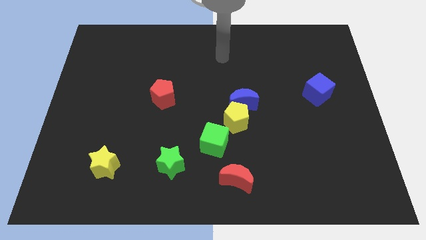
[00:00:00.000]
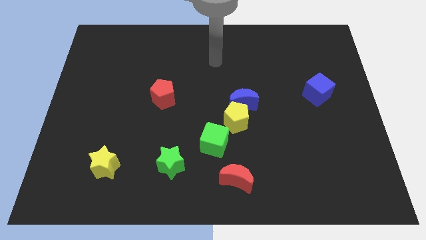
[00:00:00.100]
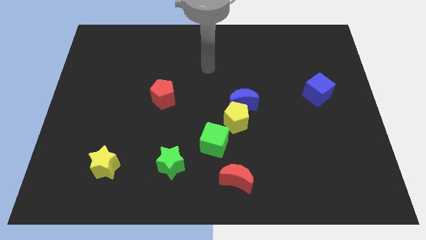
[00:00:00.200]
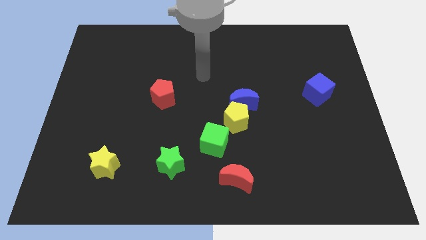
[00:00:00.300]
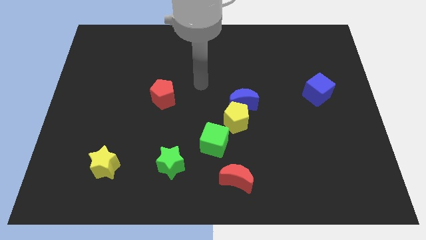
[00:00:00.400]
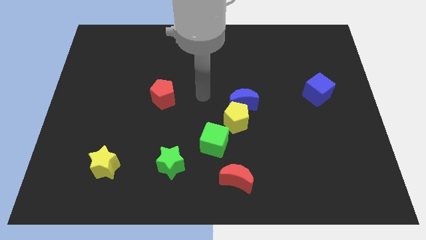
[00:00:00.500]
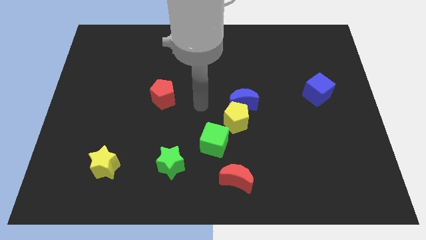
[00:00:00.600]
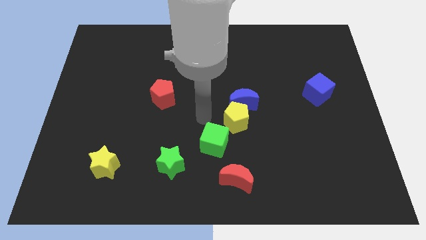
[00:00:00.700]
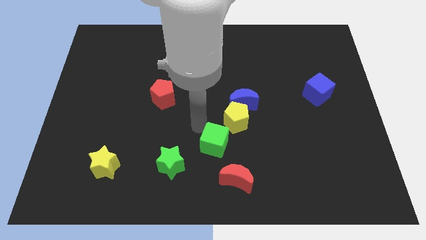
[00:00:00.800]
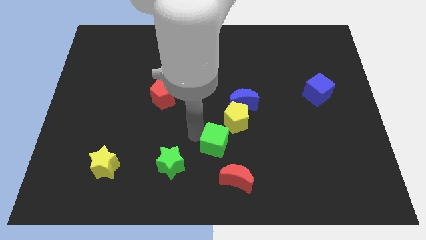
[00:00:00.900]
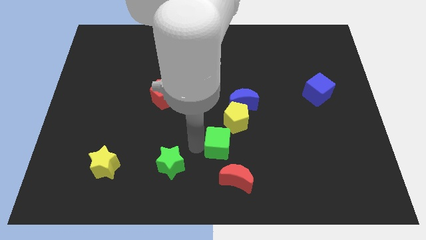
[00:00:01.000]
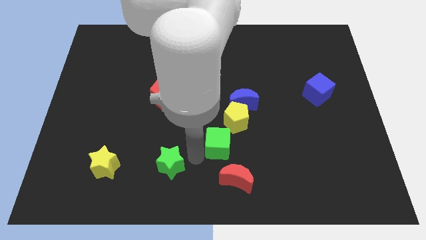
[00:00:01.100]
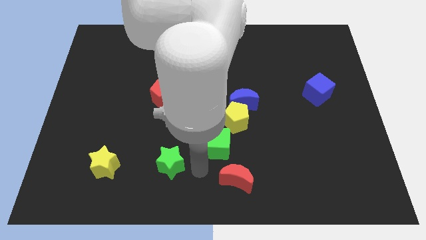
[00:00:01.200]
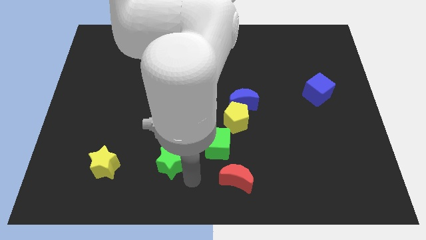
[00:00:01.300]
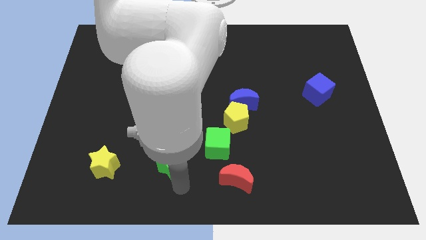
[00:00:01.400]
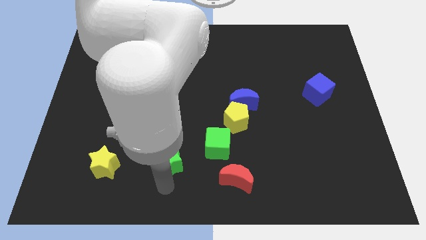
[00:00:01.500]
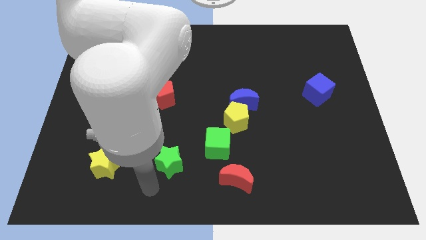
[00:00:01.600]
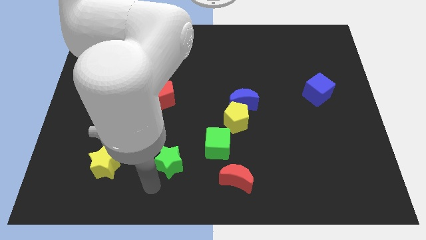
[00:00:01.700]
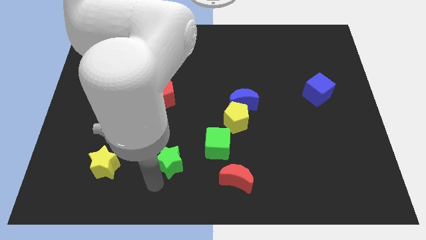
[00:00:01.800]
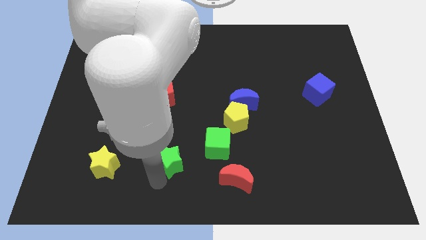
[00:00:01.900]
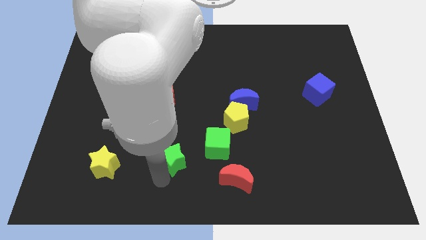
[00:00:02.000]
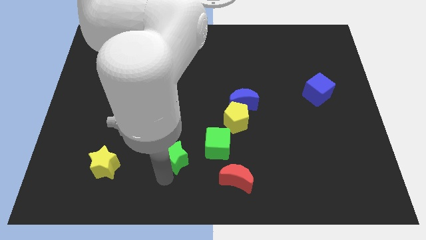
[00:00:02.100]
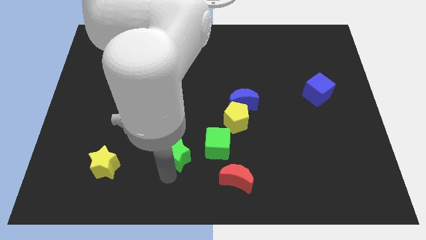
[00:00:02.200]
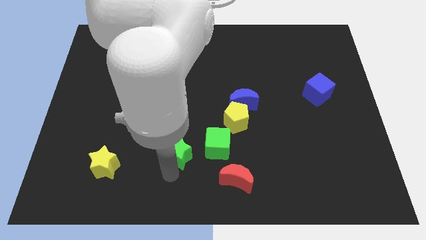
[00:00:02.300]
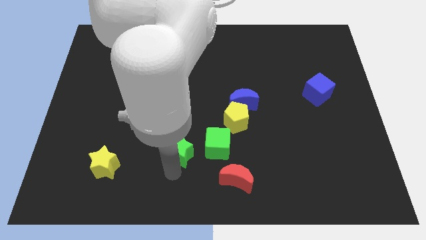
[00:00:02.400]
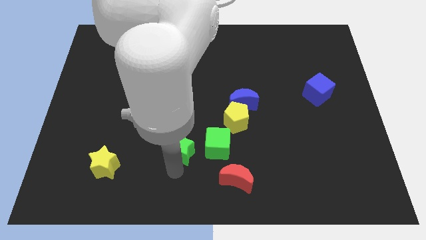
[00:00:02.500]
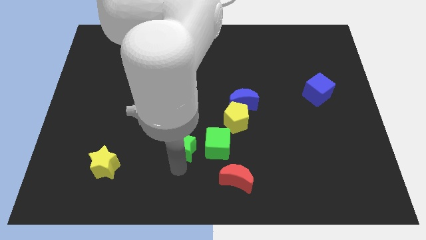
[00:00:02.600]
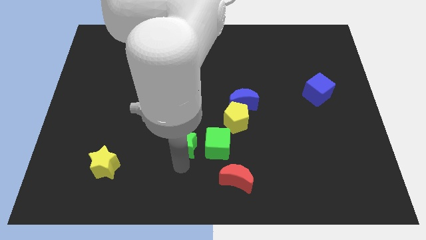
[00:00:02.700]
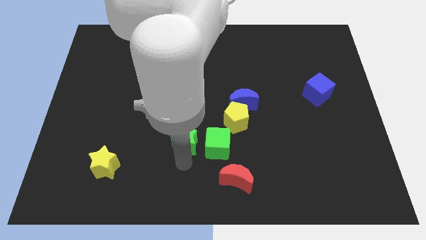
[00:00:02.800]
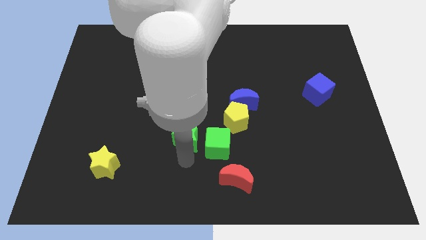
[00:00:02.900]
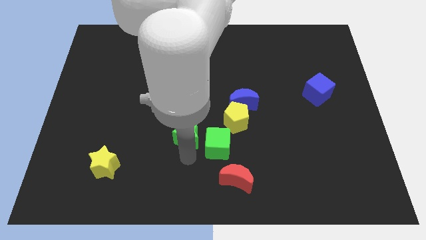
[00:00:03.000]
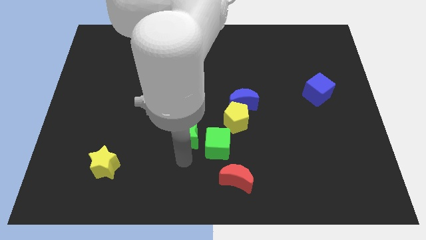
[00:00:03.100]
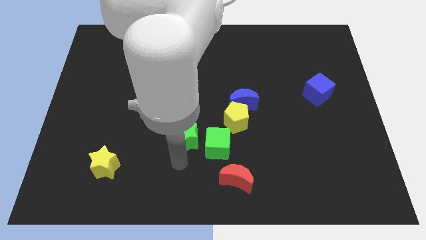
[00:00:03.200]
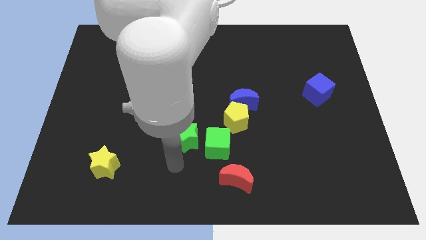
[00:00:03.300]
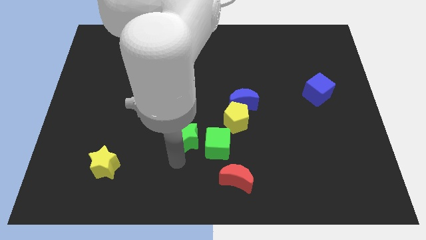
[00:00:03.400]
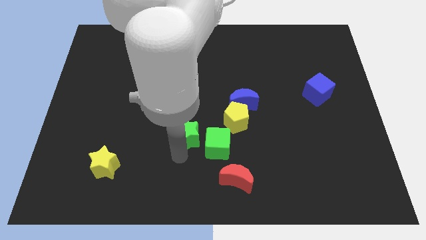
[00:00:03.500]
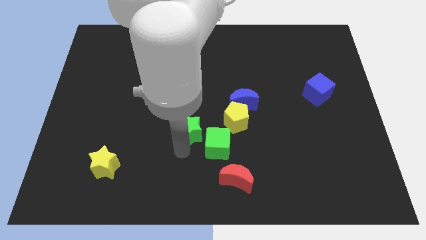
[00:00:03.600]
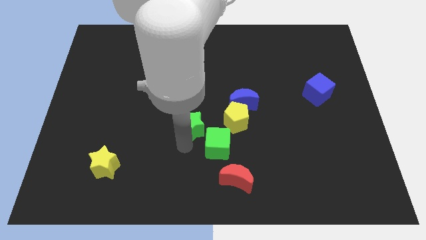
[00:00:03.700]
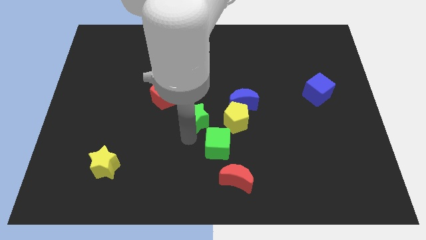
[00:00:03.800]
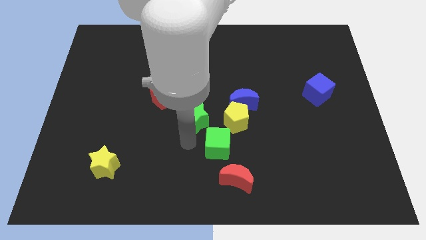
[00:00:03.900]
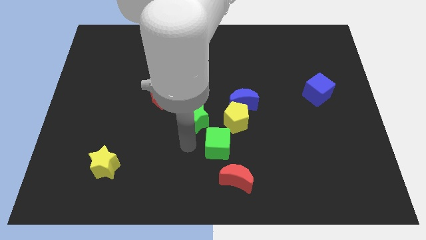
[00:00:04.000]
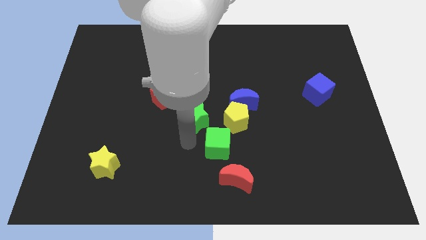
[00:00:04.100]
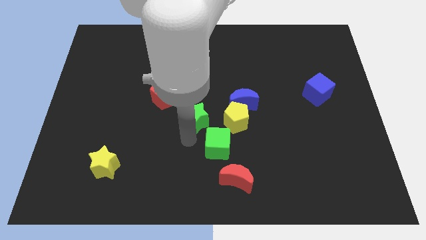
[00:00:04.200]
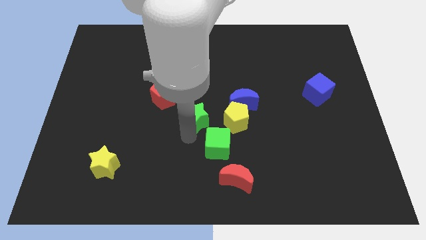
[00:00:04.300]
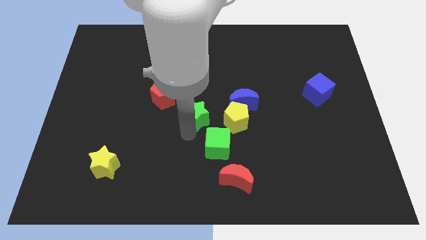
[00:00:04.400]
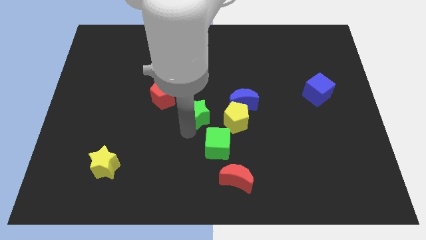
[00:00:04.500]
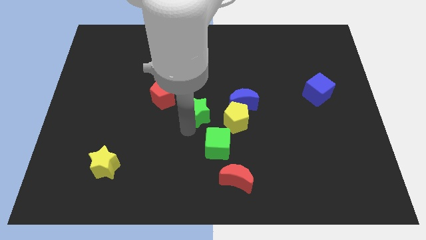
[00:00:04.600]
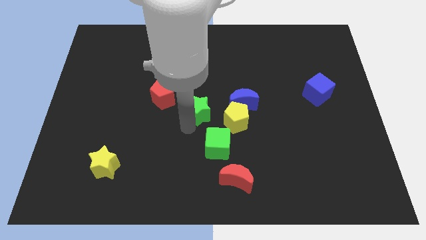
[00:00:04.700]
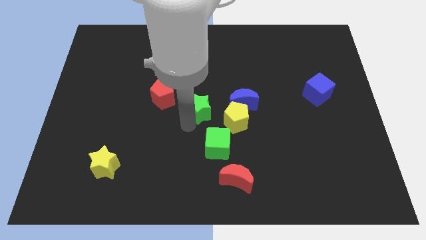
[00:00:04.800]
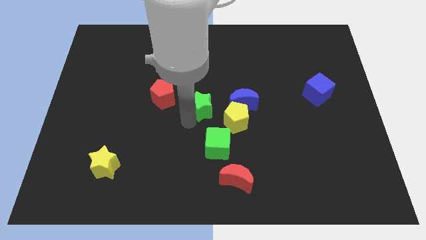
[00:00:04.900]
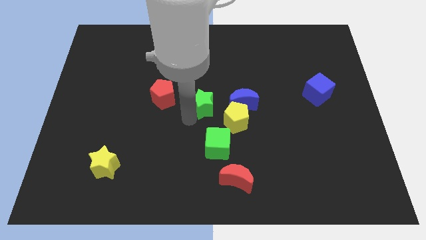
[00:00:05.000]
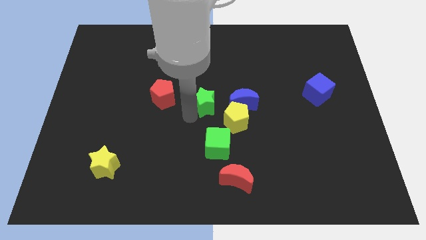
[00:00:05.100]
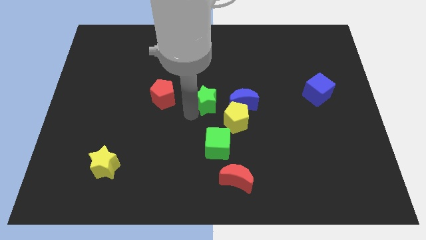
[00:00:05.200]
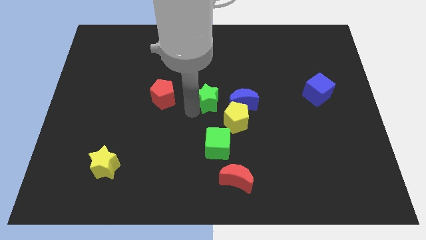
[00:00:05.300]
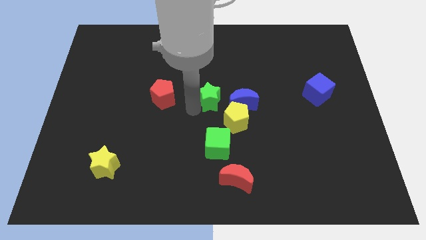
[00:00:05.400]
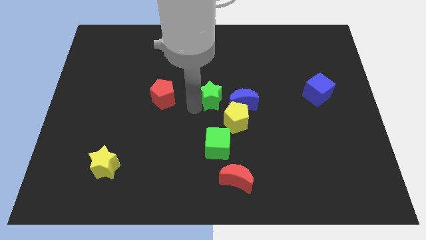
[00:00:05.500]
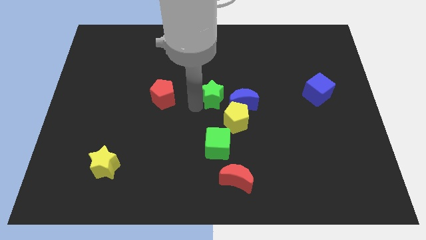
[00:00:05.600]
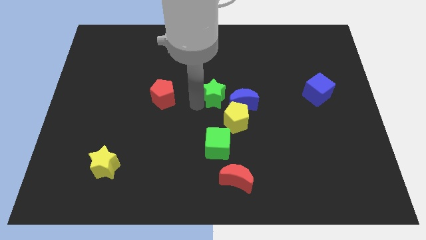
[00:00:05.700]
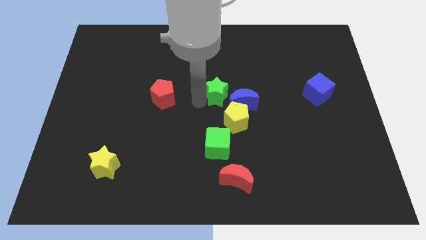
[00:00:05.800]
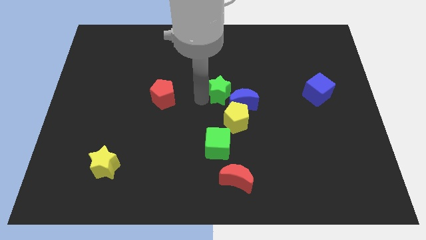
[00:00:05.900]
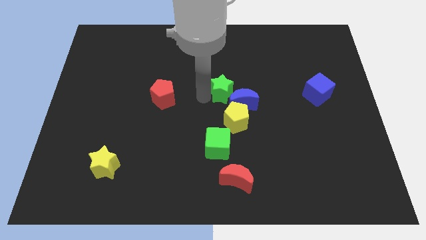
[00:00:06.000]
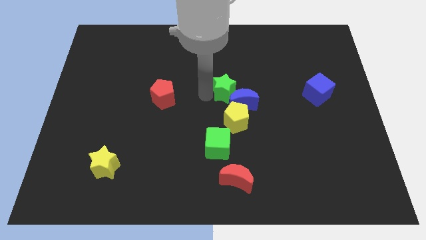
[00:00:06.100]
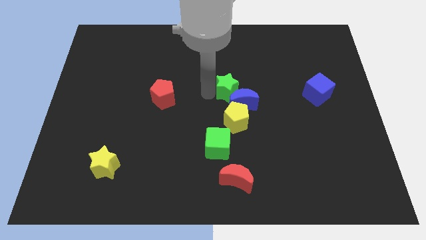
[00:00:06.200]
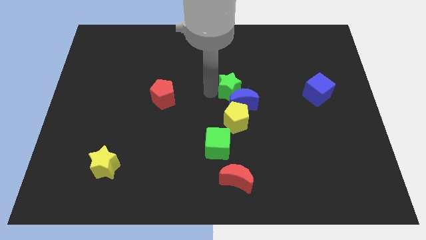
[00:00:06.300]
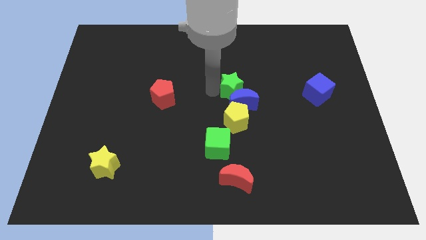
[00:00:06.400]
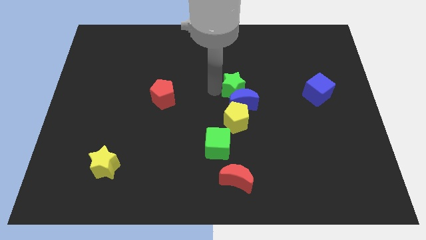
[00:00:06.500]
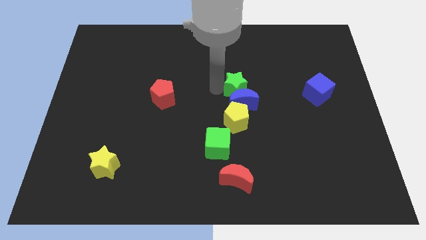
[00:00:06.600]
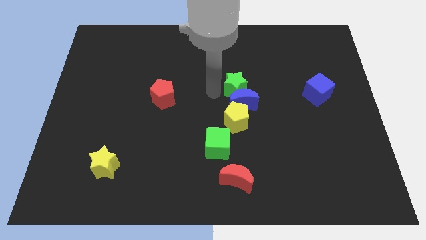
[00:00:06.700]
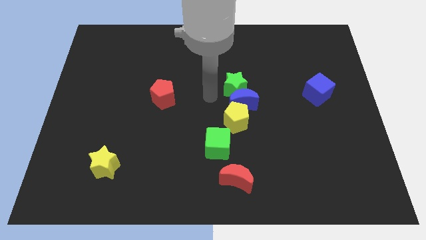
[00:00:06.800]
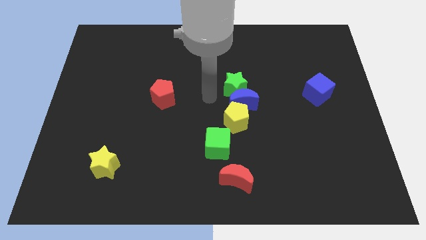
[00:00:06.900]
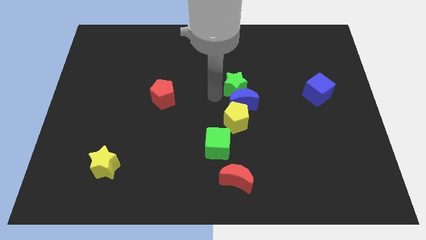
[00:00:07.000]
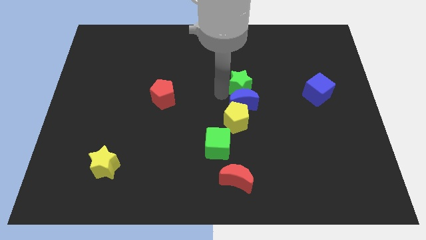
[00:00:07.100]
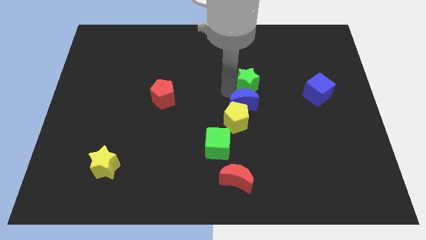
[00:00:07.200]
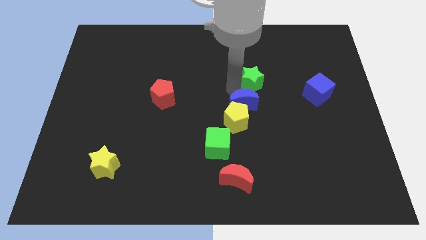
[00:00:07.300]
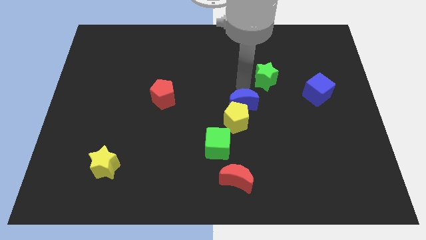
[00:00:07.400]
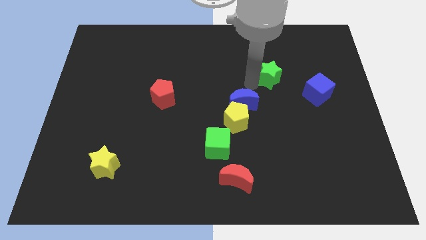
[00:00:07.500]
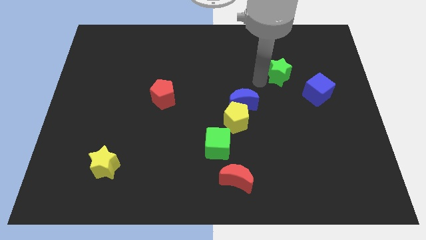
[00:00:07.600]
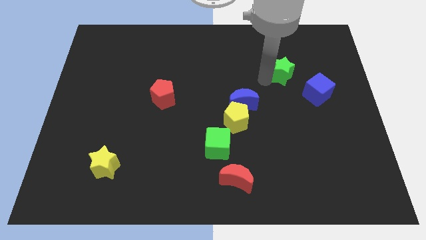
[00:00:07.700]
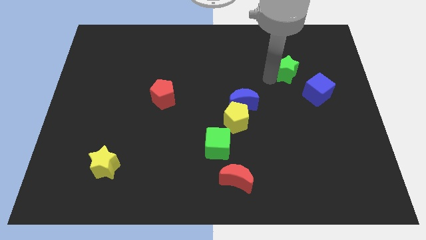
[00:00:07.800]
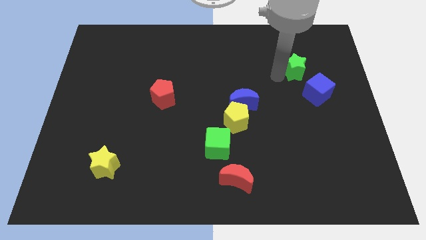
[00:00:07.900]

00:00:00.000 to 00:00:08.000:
move the green star to the top of the blue cube

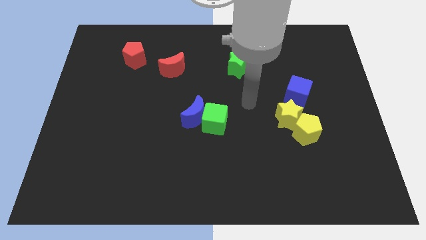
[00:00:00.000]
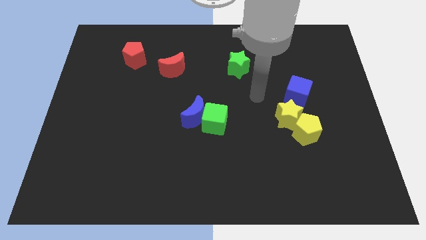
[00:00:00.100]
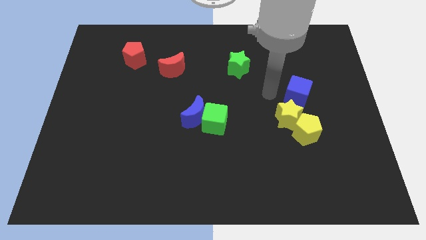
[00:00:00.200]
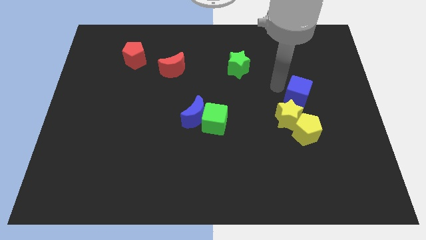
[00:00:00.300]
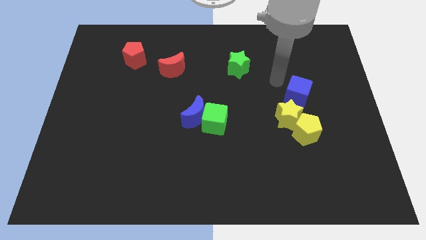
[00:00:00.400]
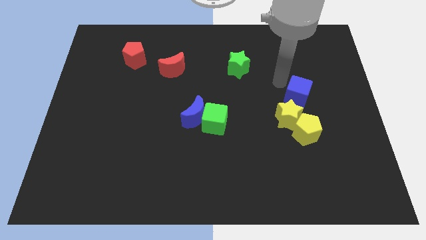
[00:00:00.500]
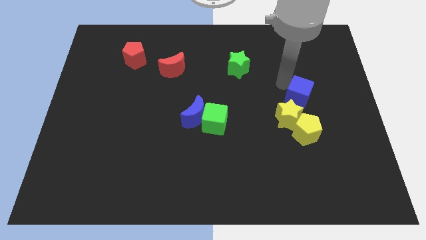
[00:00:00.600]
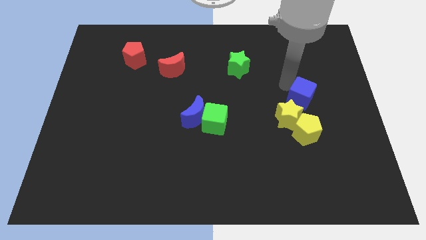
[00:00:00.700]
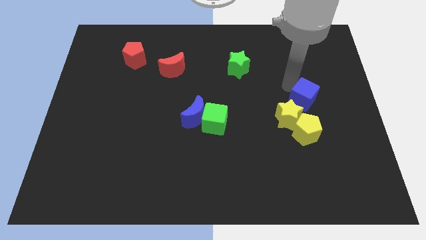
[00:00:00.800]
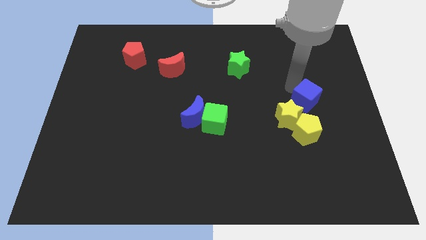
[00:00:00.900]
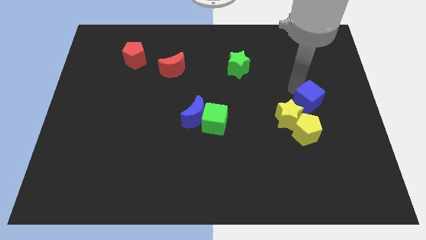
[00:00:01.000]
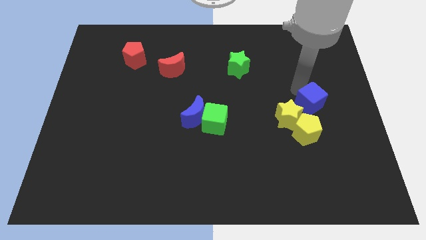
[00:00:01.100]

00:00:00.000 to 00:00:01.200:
slide the blue cube diagonally up and to the right of the yellow pentagon
